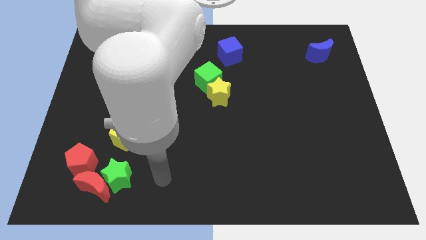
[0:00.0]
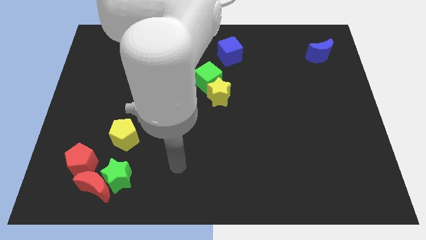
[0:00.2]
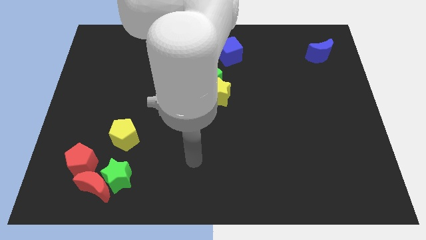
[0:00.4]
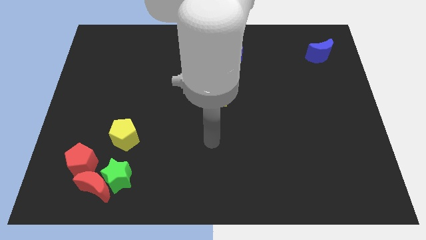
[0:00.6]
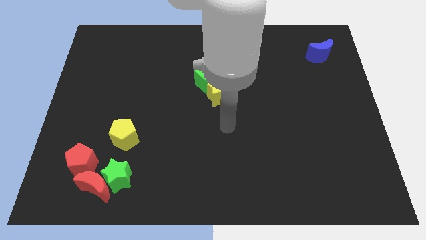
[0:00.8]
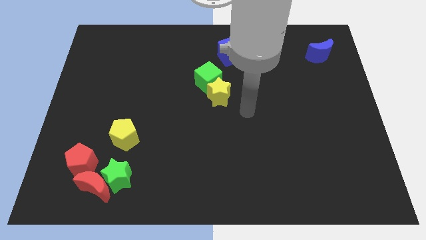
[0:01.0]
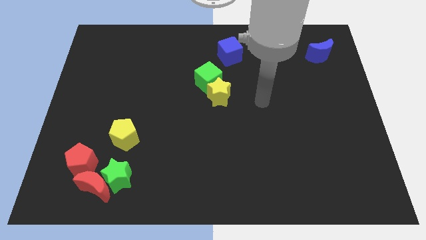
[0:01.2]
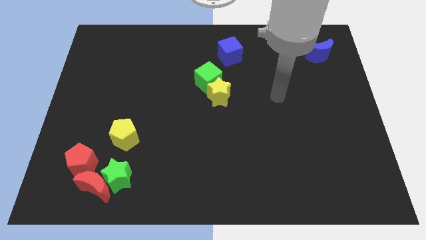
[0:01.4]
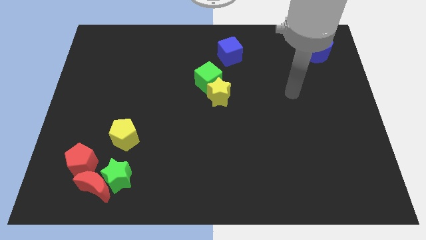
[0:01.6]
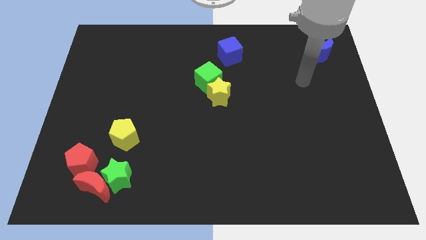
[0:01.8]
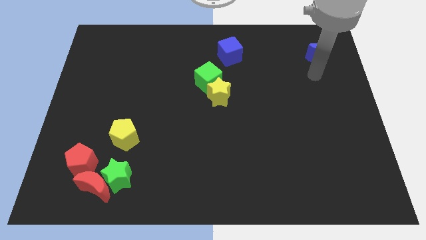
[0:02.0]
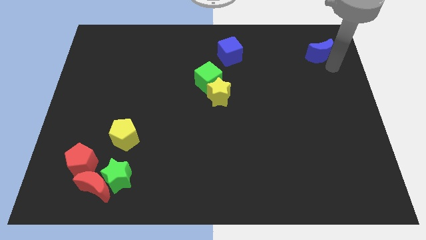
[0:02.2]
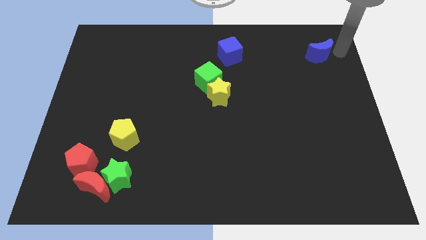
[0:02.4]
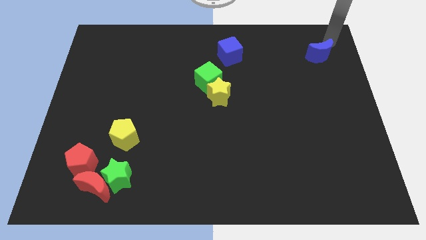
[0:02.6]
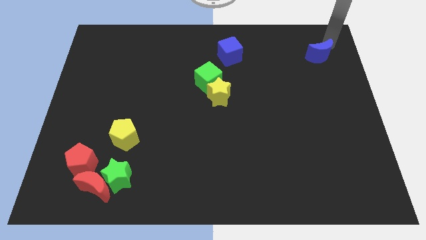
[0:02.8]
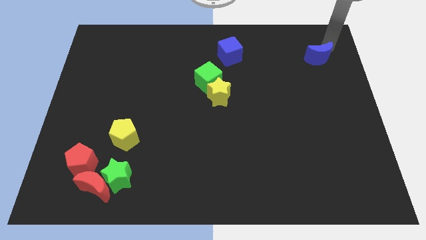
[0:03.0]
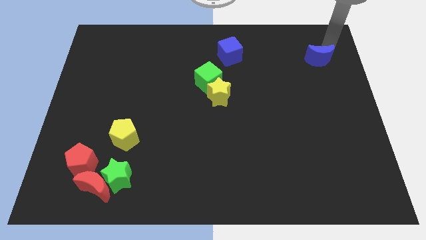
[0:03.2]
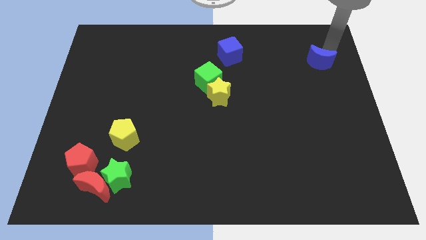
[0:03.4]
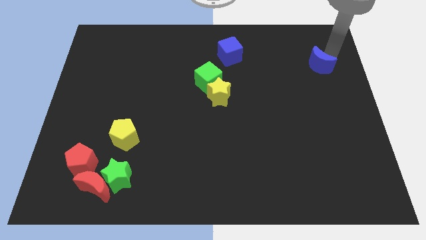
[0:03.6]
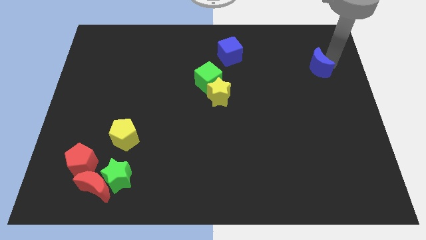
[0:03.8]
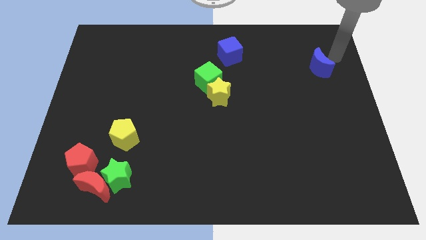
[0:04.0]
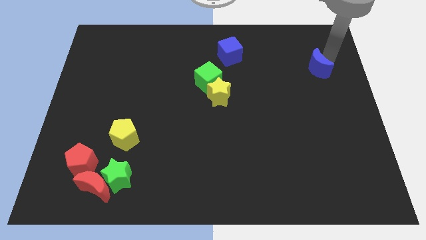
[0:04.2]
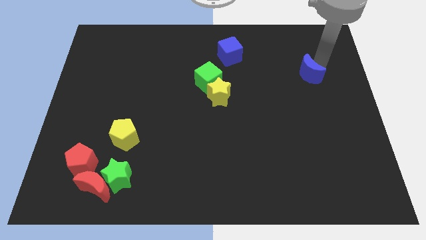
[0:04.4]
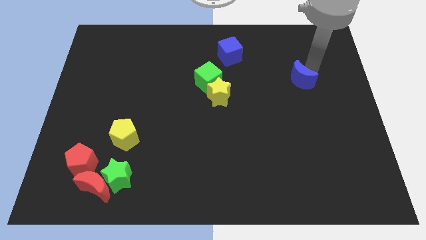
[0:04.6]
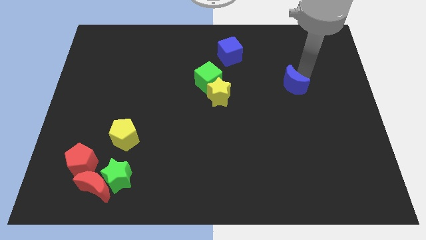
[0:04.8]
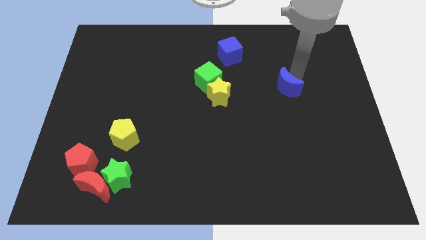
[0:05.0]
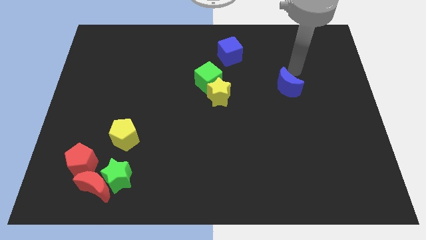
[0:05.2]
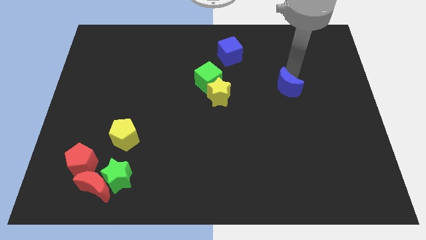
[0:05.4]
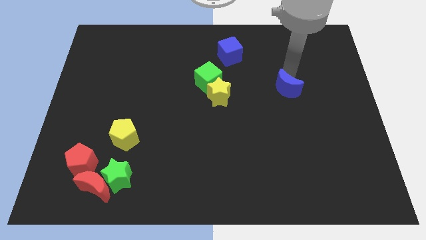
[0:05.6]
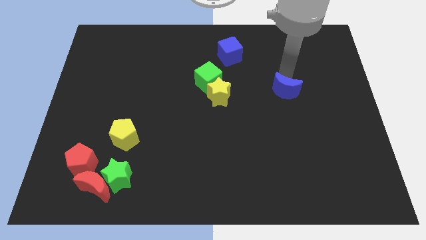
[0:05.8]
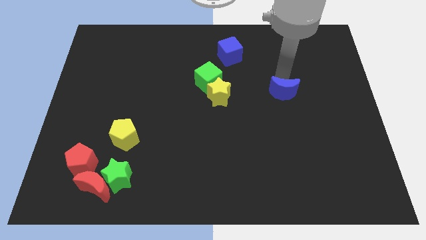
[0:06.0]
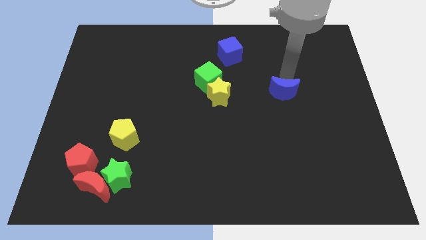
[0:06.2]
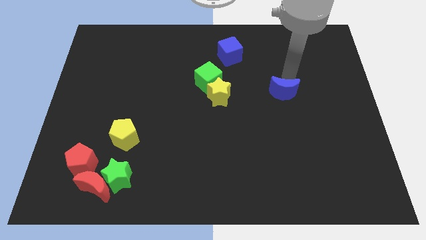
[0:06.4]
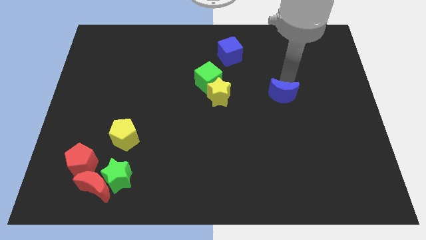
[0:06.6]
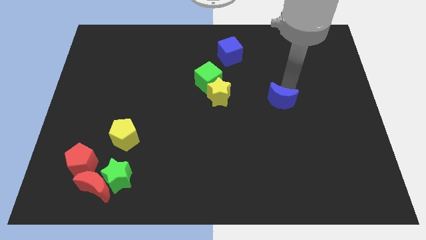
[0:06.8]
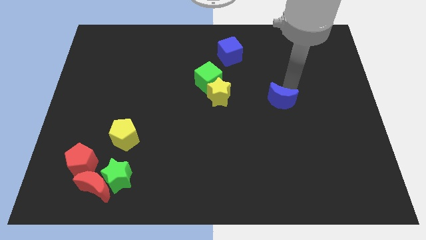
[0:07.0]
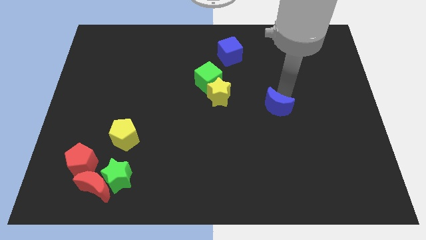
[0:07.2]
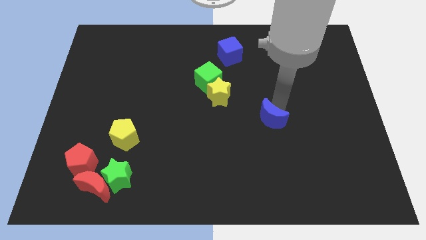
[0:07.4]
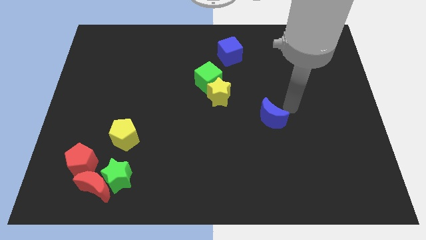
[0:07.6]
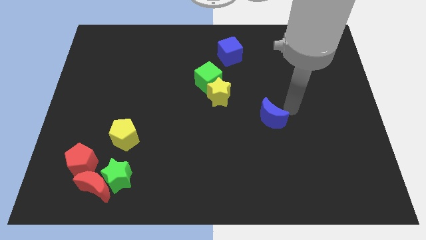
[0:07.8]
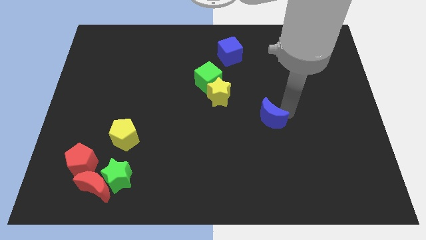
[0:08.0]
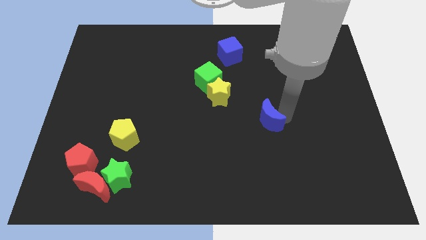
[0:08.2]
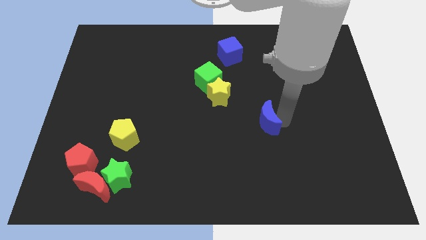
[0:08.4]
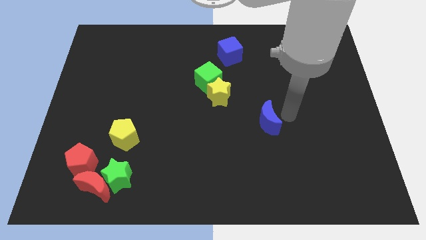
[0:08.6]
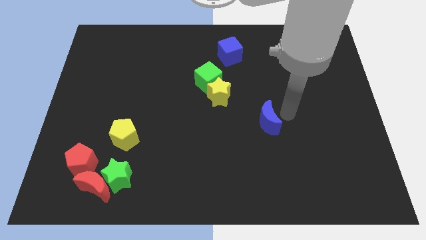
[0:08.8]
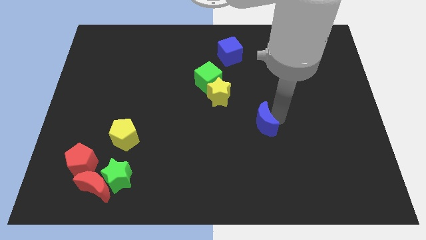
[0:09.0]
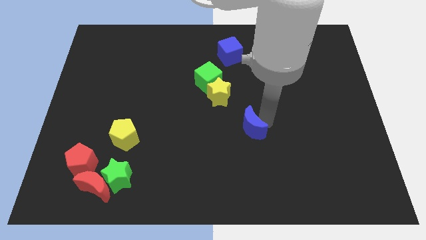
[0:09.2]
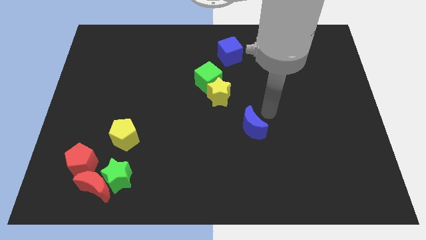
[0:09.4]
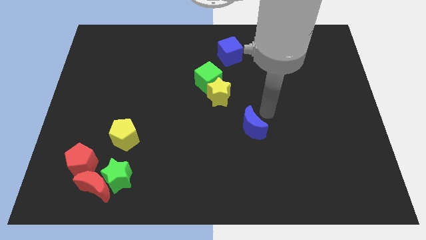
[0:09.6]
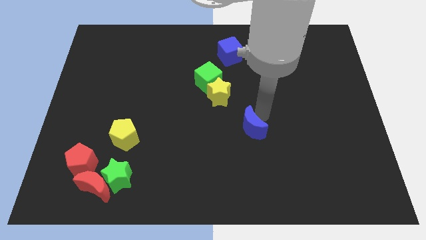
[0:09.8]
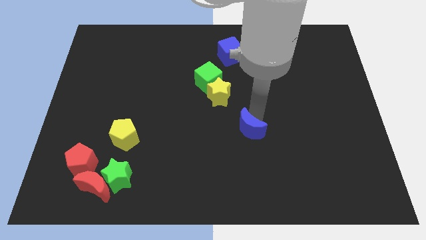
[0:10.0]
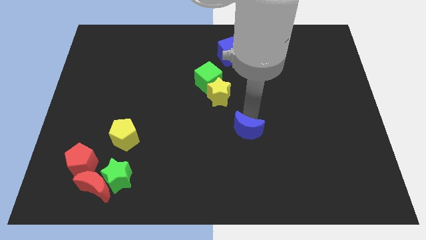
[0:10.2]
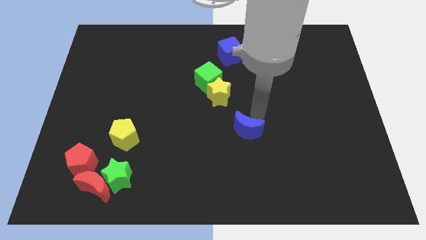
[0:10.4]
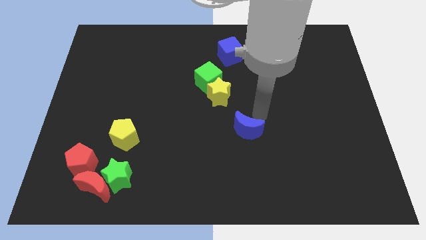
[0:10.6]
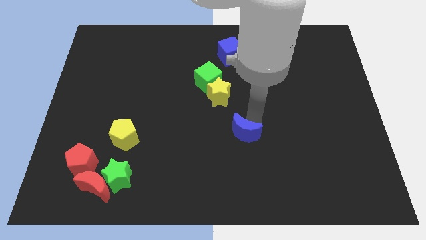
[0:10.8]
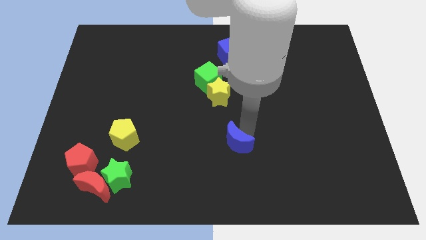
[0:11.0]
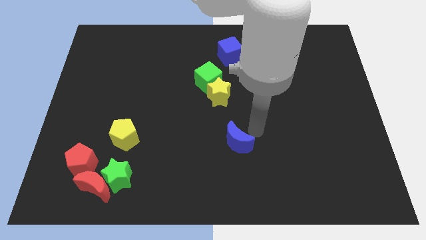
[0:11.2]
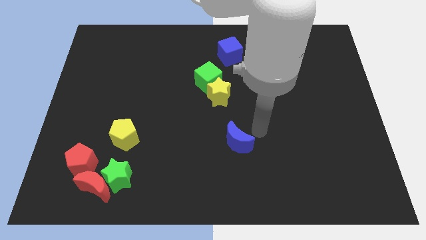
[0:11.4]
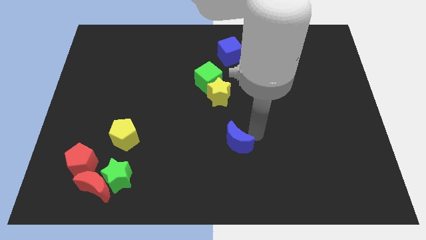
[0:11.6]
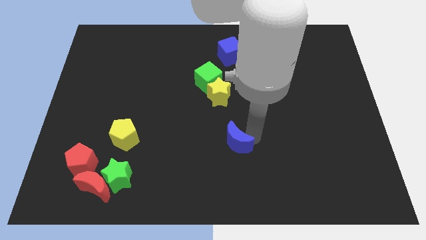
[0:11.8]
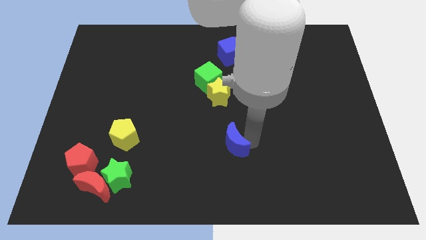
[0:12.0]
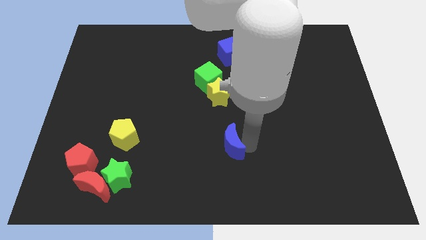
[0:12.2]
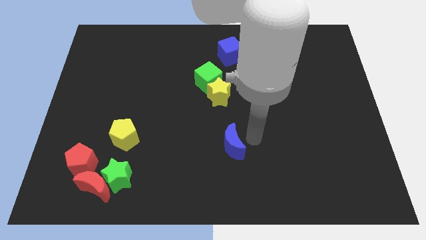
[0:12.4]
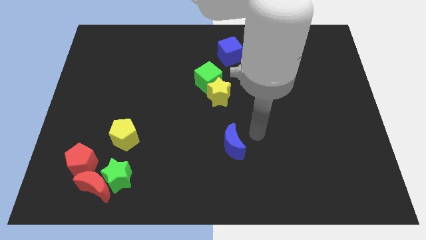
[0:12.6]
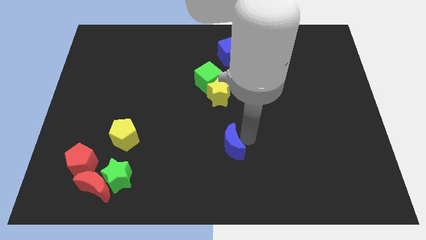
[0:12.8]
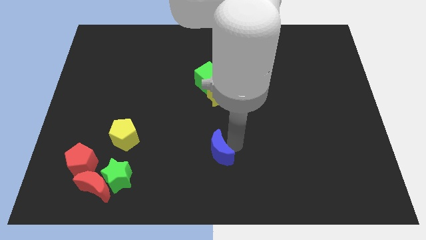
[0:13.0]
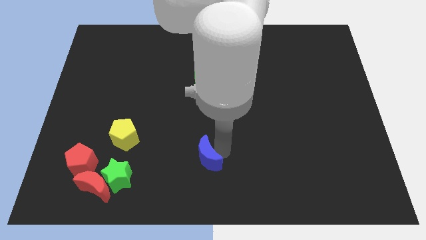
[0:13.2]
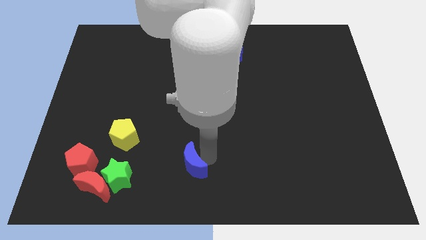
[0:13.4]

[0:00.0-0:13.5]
put the blue moon right of the green star
